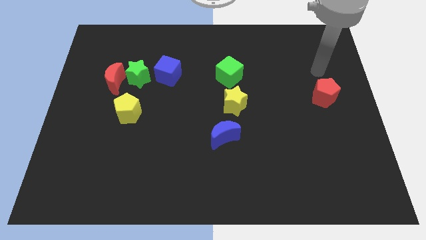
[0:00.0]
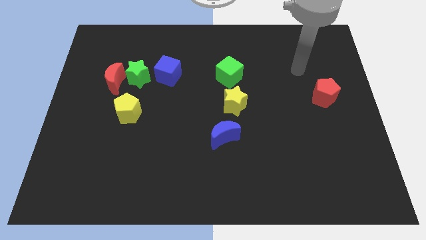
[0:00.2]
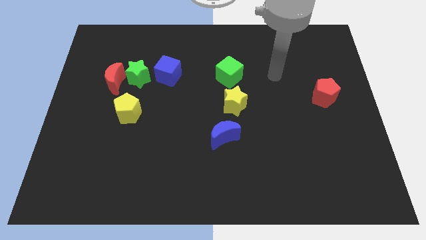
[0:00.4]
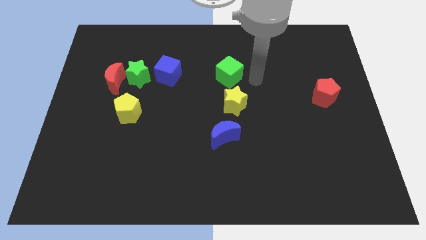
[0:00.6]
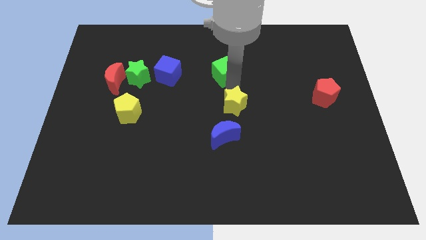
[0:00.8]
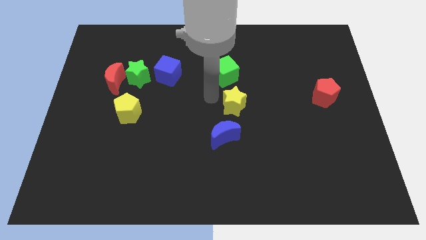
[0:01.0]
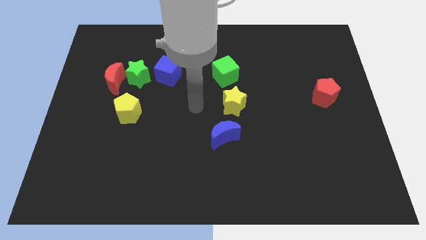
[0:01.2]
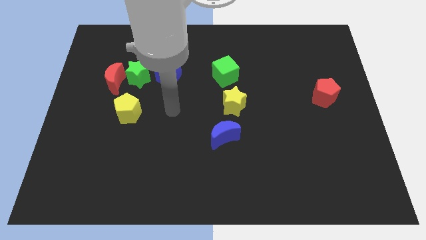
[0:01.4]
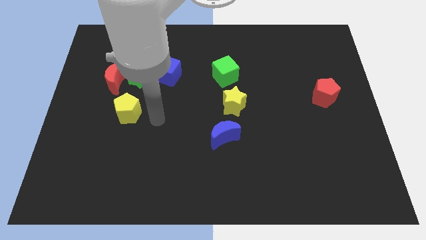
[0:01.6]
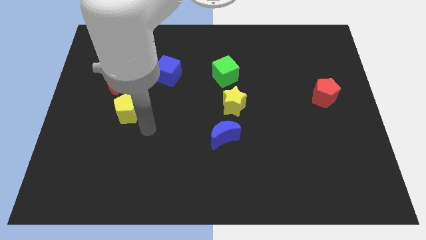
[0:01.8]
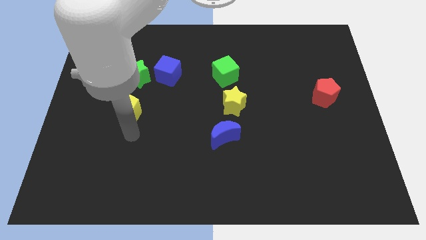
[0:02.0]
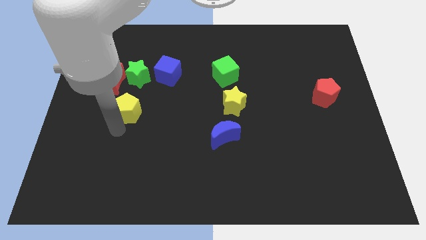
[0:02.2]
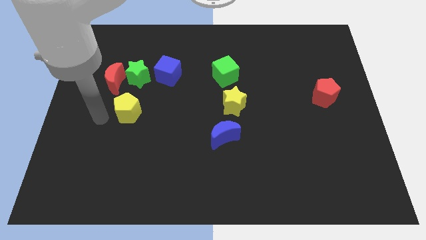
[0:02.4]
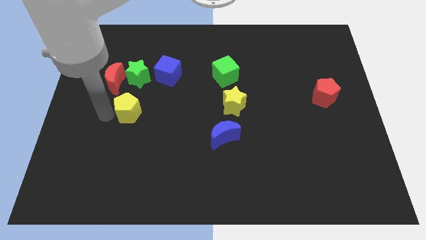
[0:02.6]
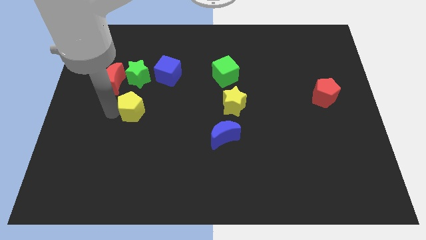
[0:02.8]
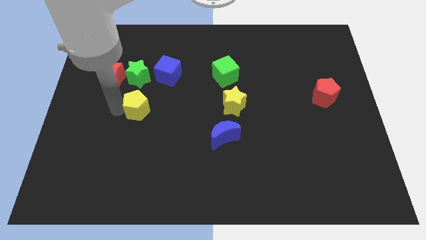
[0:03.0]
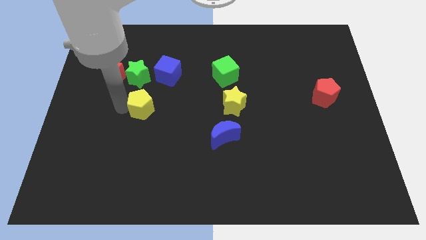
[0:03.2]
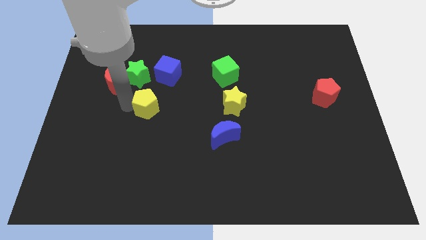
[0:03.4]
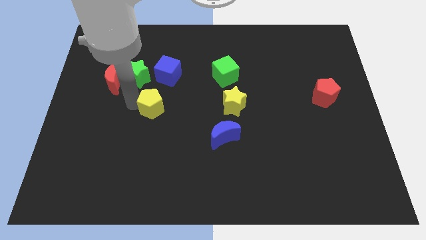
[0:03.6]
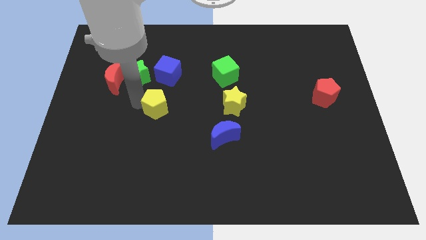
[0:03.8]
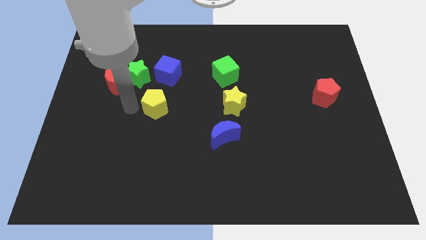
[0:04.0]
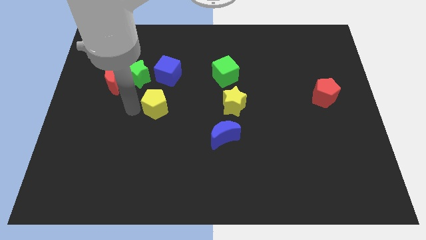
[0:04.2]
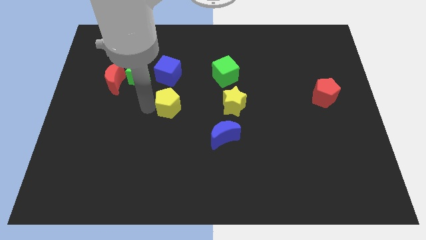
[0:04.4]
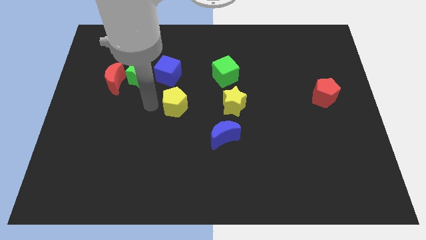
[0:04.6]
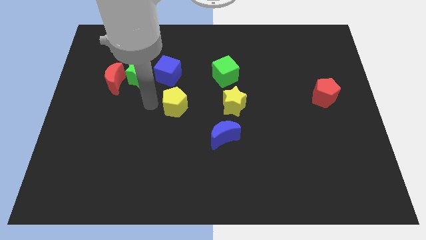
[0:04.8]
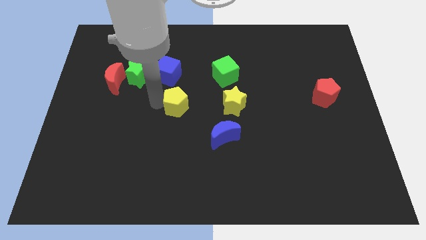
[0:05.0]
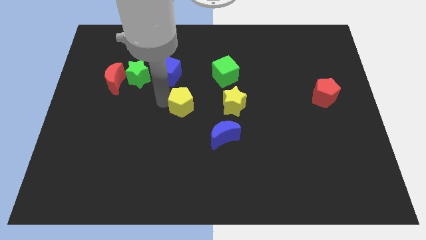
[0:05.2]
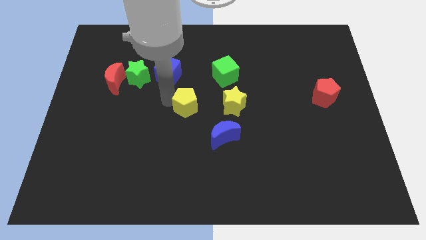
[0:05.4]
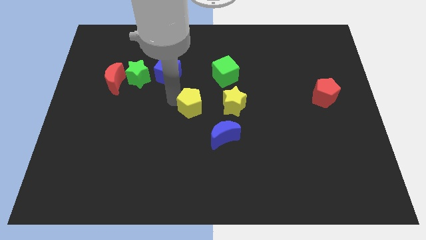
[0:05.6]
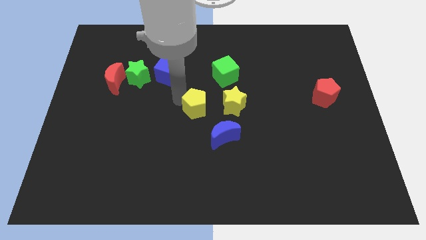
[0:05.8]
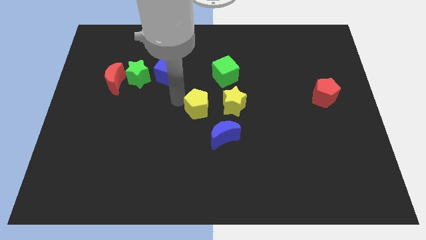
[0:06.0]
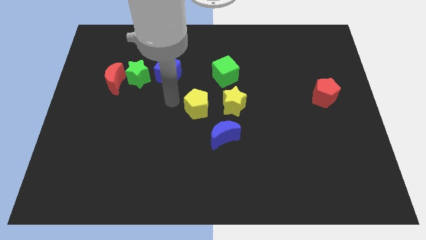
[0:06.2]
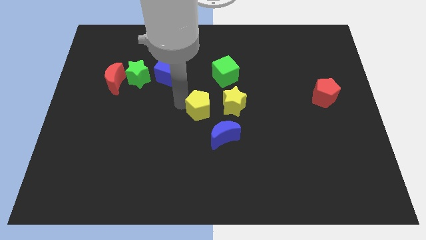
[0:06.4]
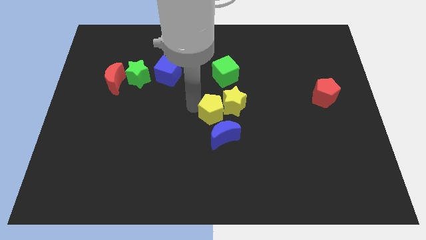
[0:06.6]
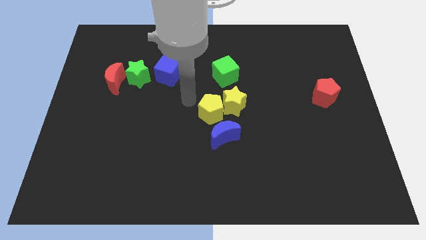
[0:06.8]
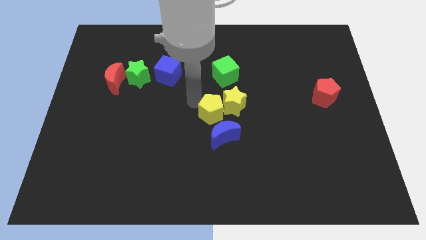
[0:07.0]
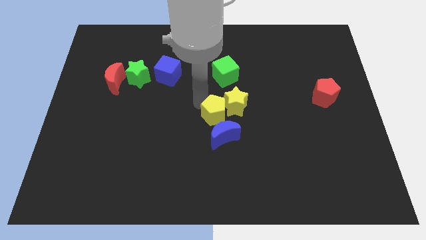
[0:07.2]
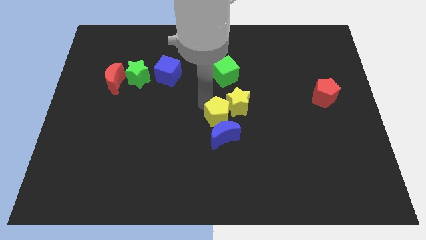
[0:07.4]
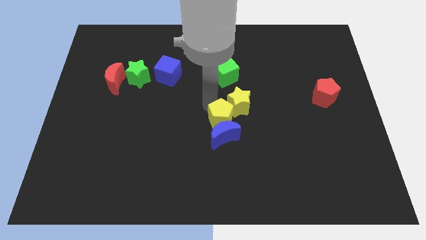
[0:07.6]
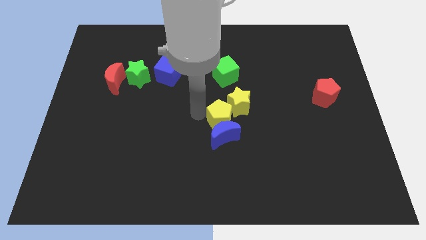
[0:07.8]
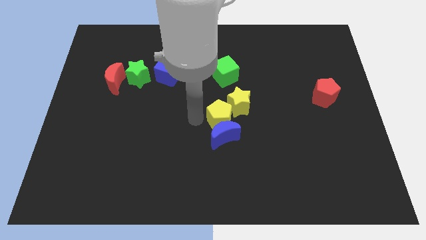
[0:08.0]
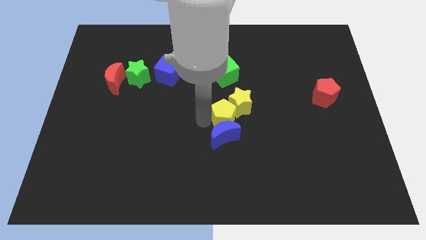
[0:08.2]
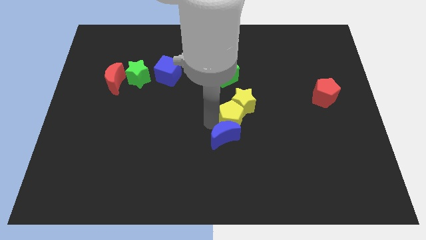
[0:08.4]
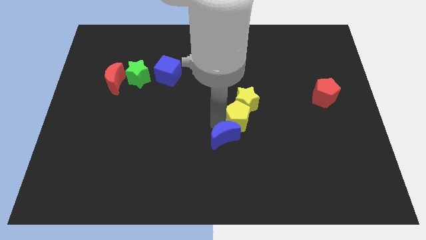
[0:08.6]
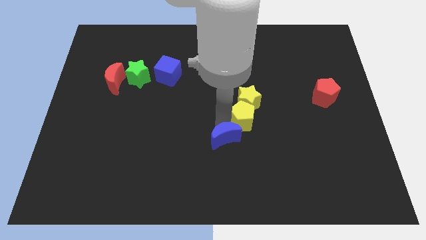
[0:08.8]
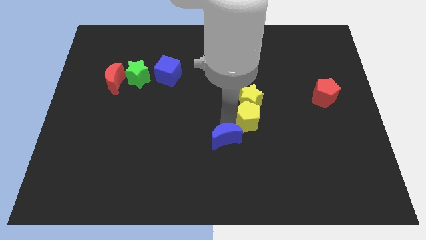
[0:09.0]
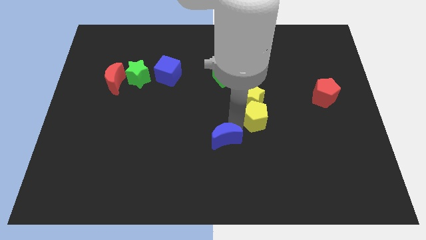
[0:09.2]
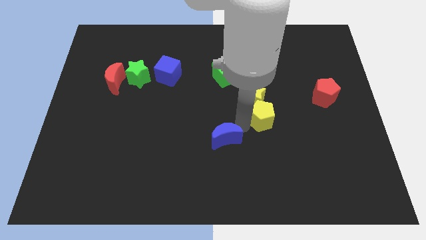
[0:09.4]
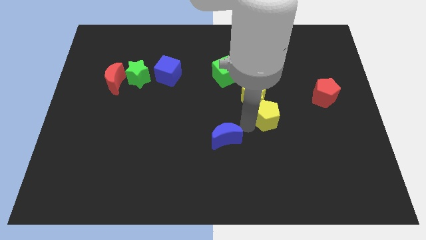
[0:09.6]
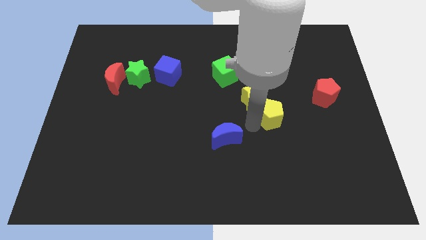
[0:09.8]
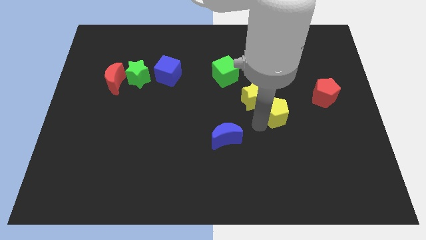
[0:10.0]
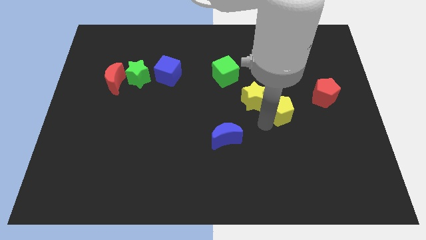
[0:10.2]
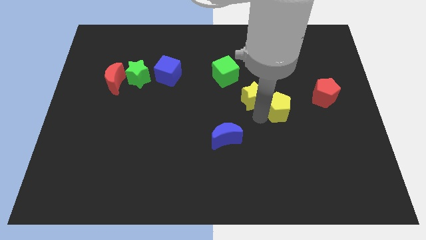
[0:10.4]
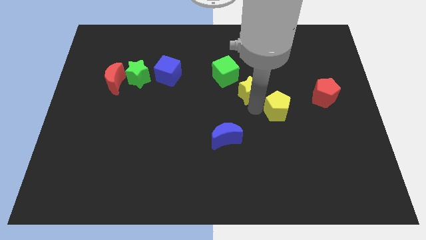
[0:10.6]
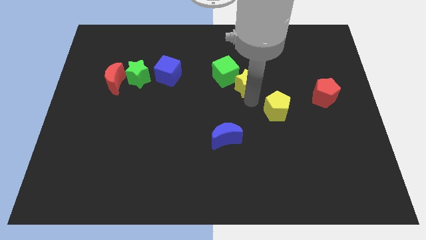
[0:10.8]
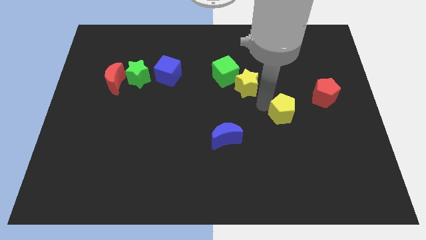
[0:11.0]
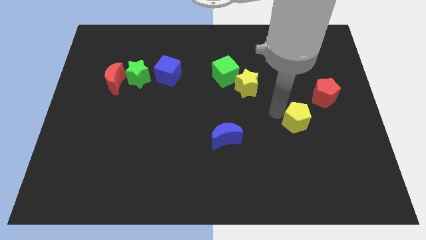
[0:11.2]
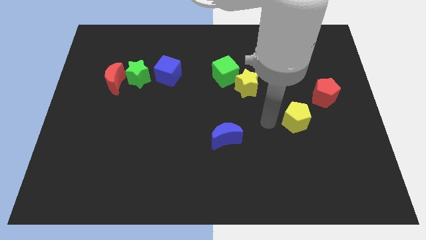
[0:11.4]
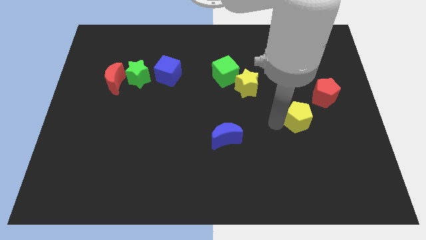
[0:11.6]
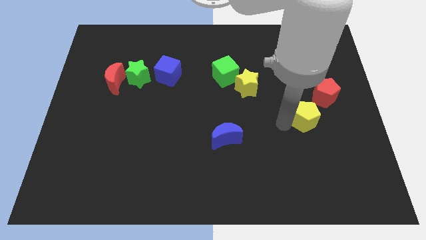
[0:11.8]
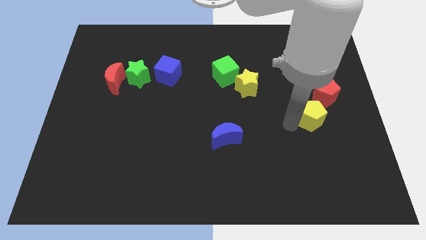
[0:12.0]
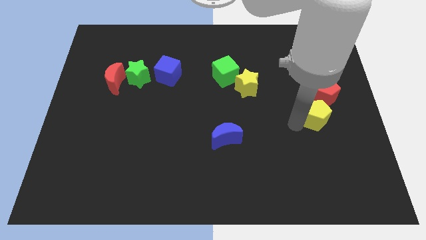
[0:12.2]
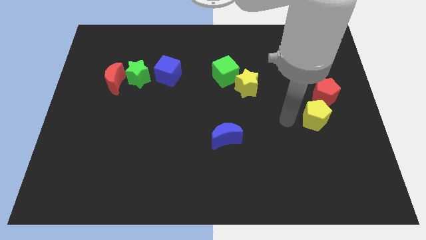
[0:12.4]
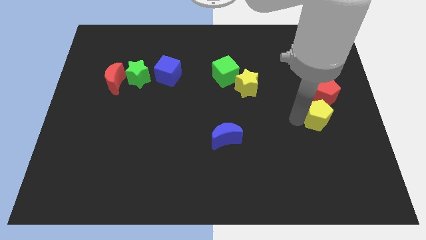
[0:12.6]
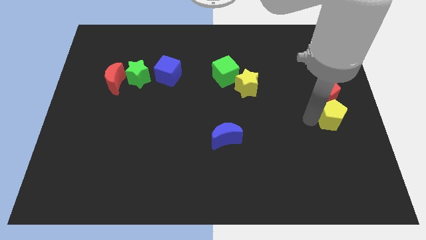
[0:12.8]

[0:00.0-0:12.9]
slide the yellow pentagon to the center right
